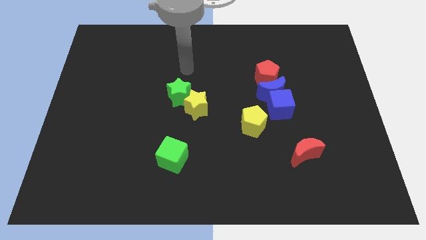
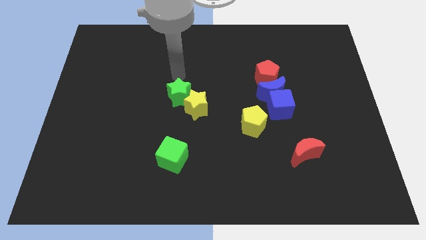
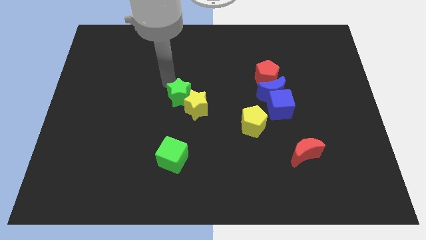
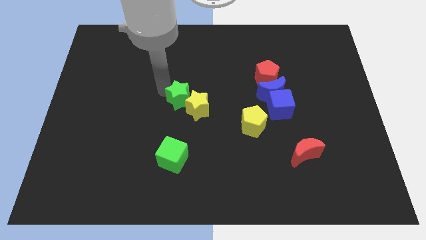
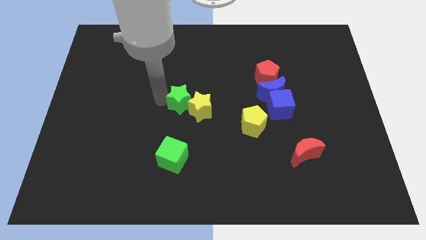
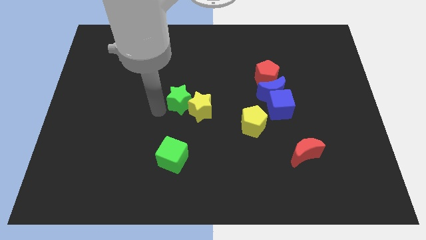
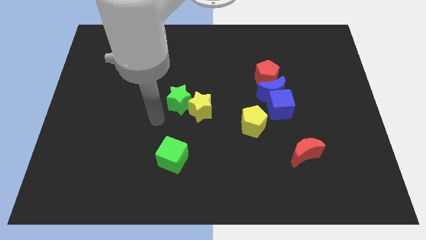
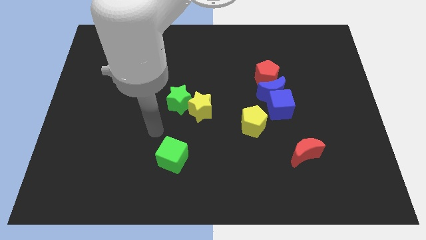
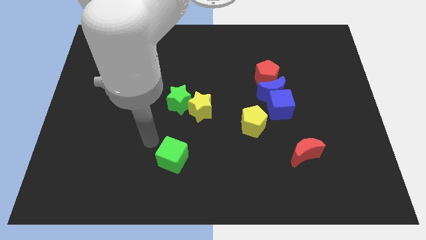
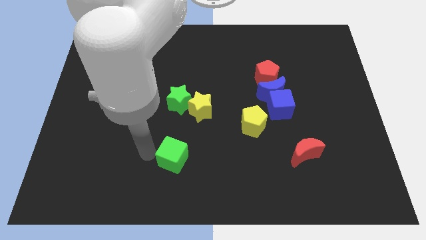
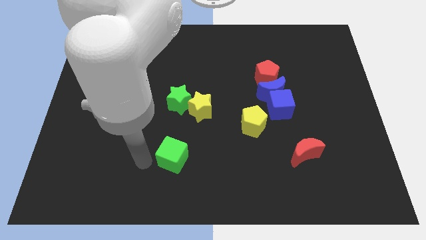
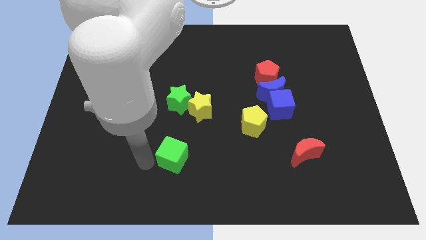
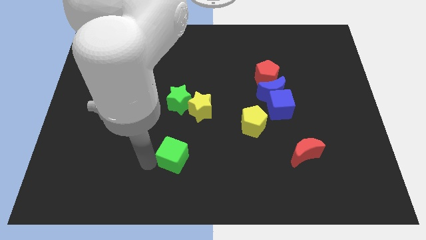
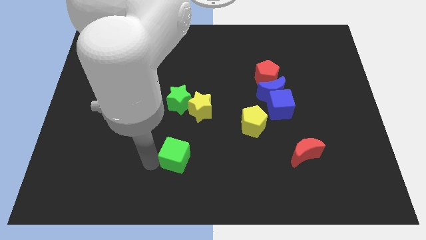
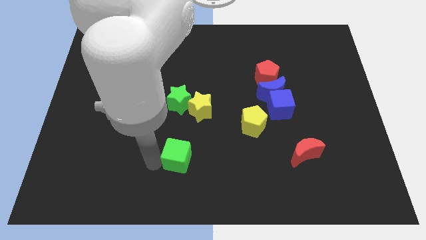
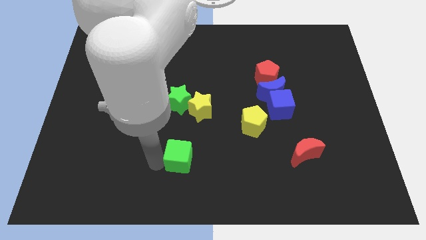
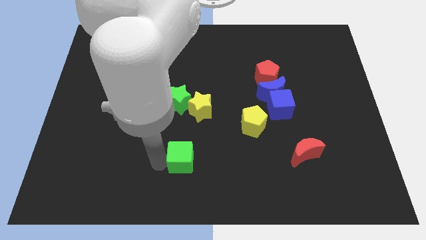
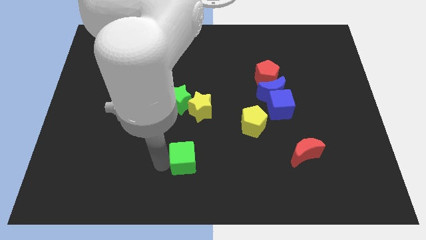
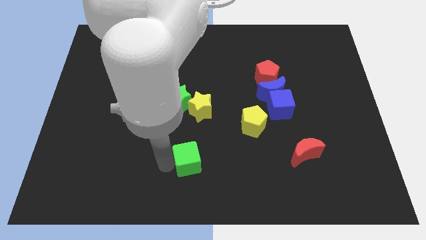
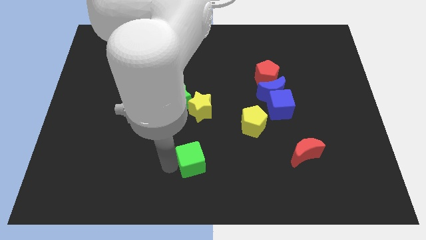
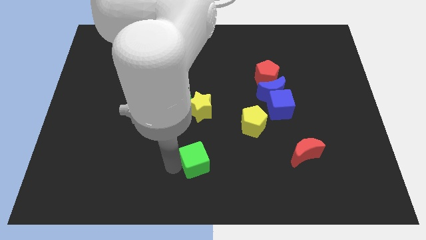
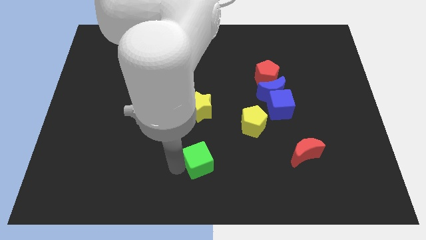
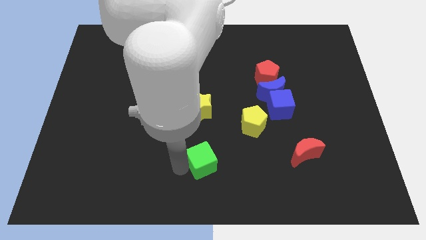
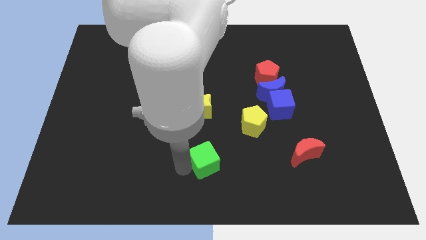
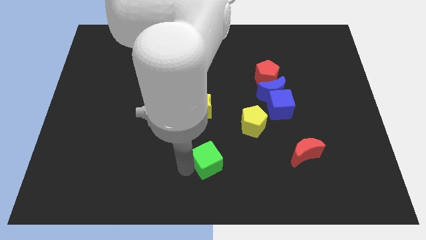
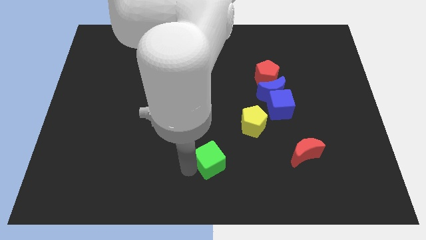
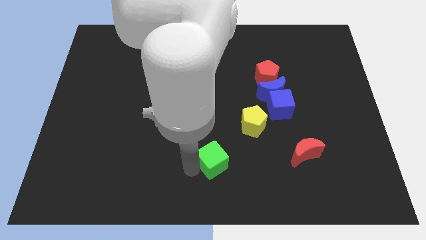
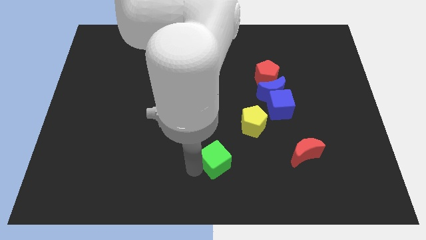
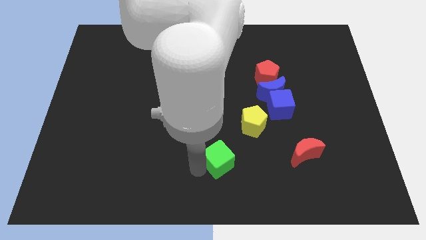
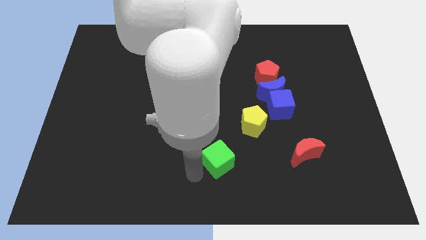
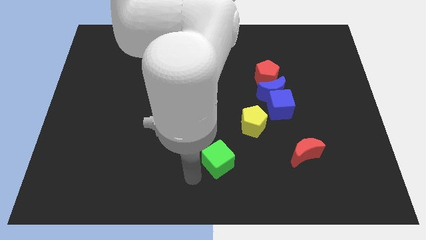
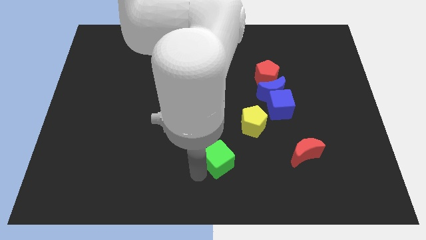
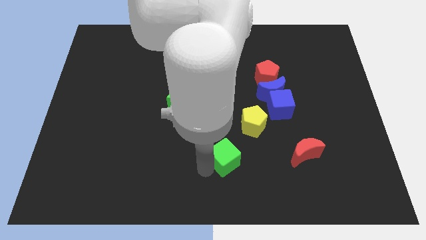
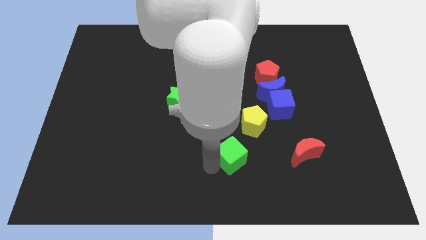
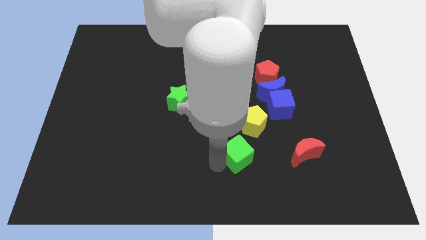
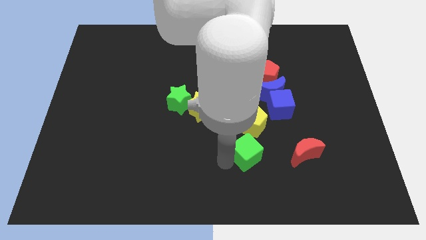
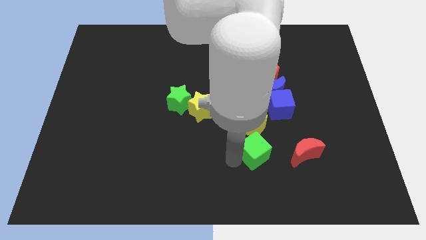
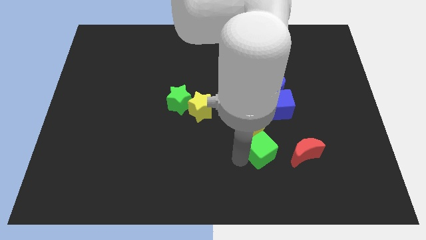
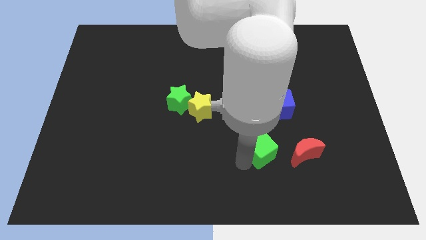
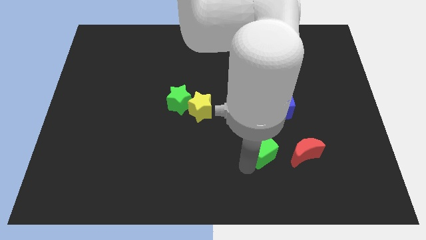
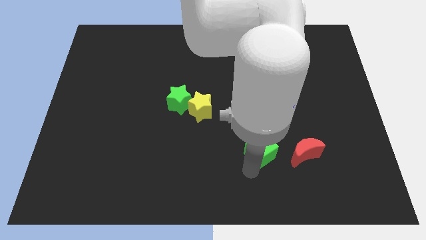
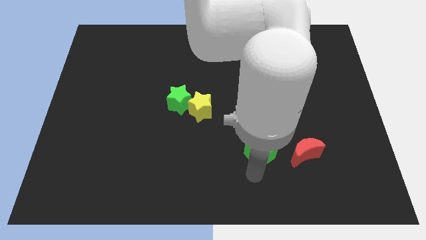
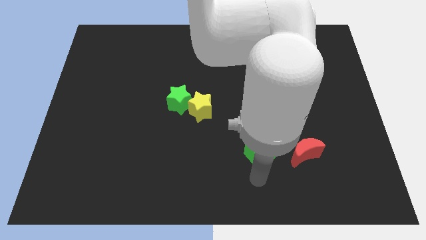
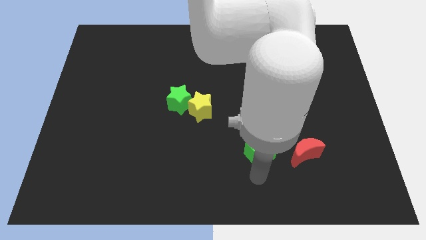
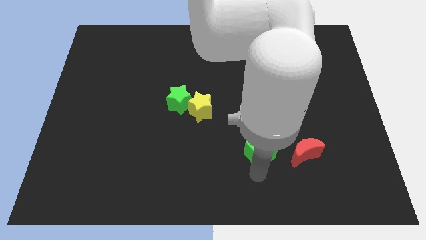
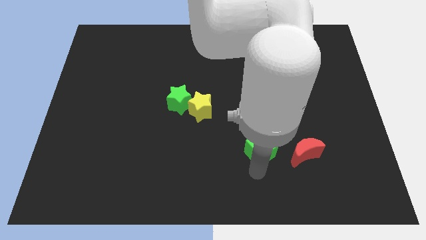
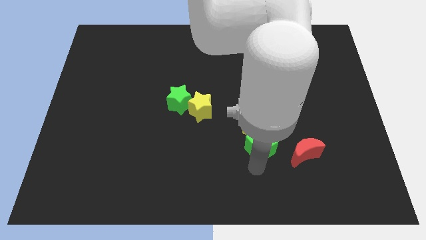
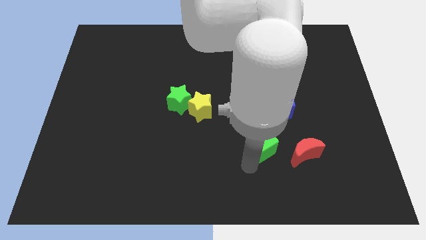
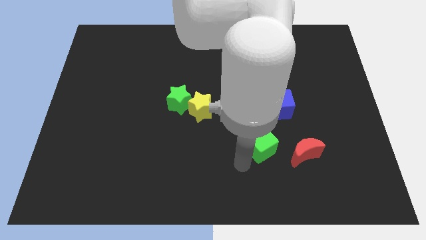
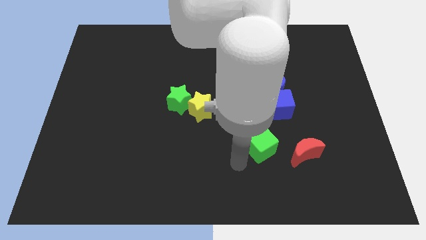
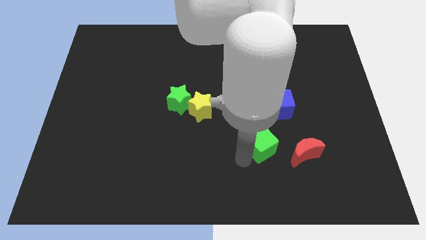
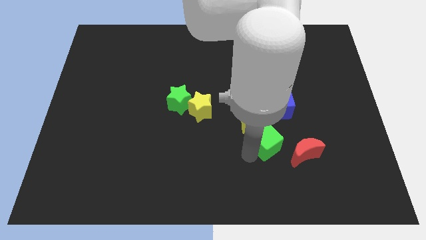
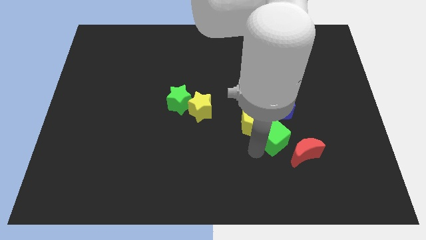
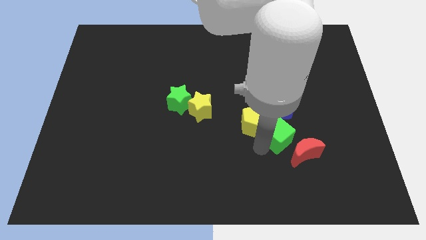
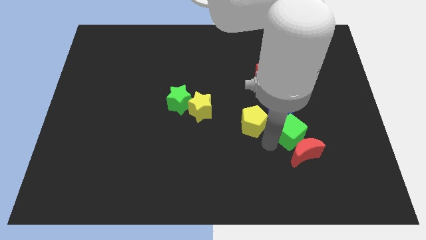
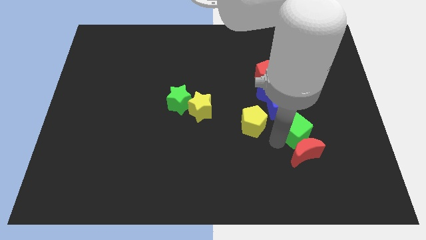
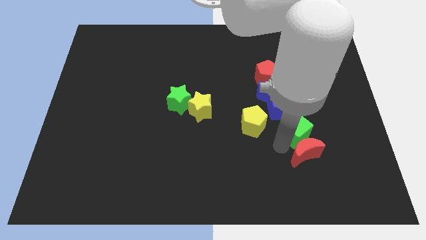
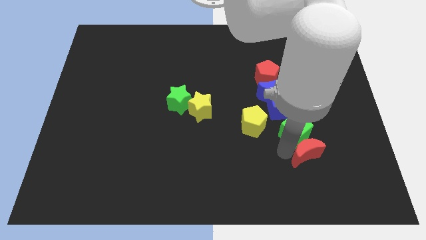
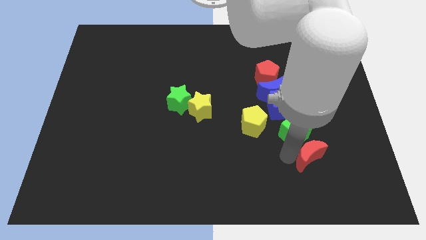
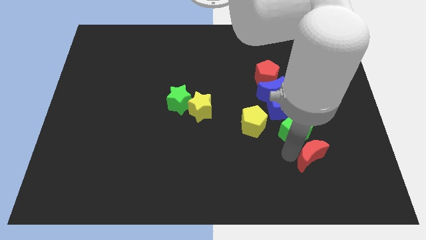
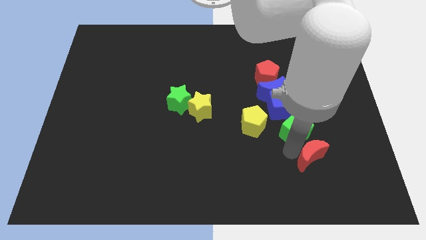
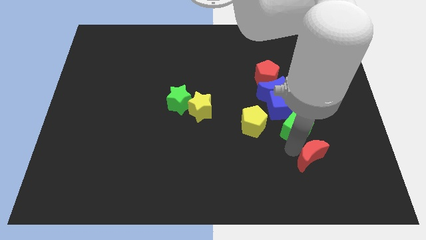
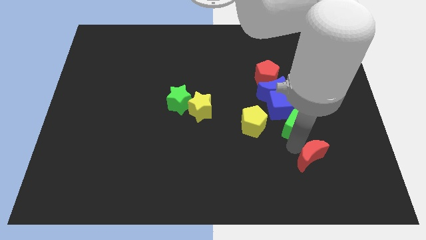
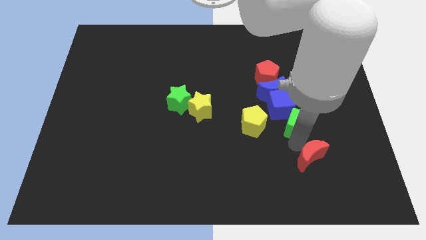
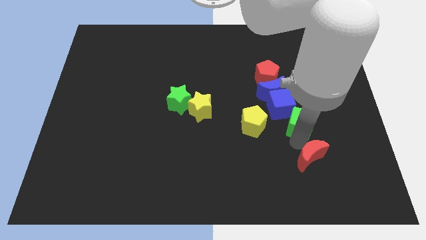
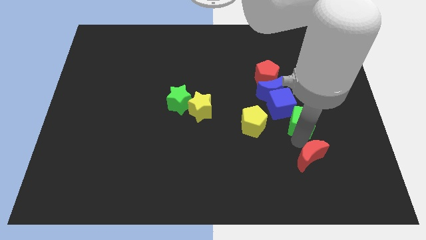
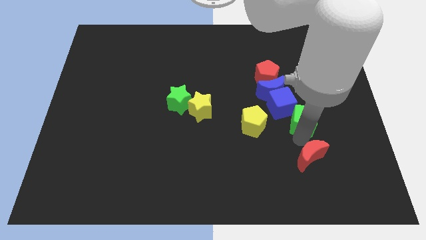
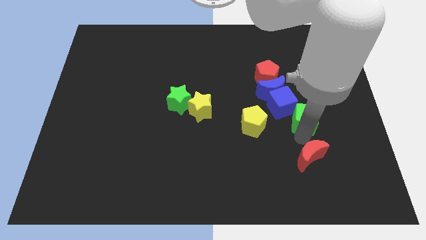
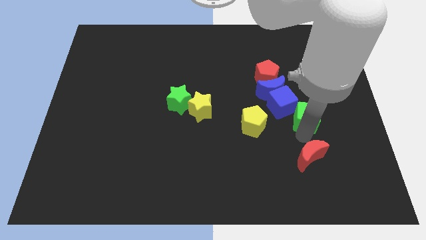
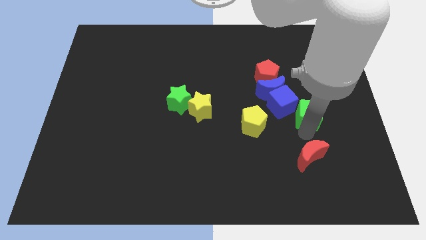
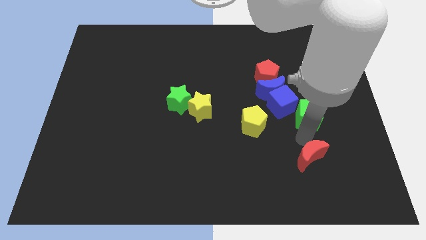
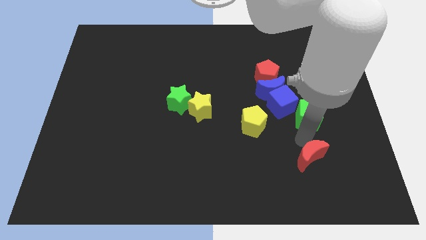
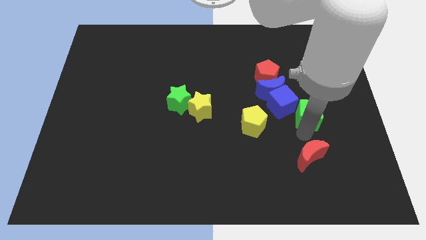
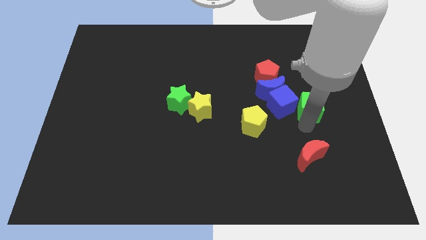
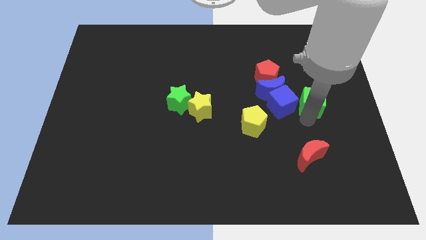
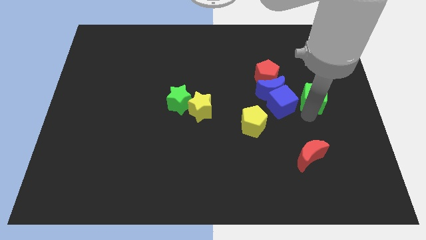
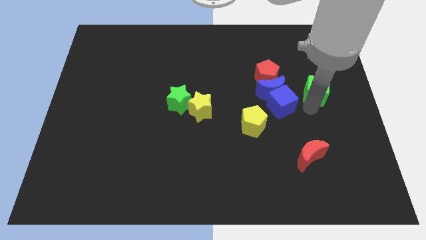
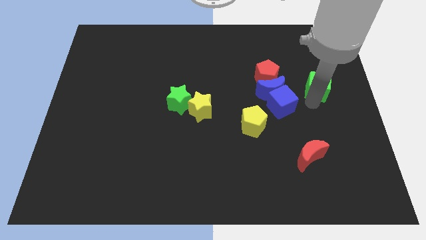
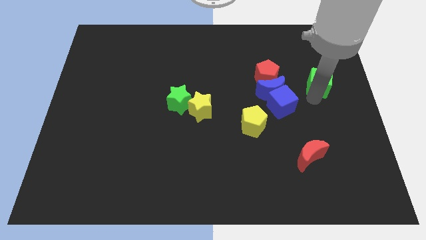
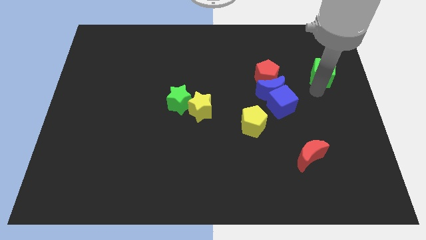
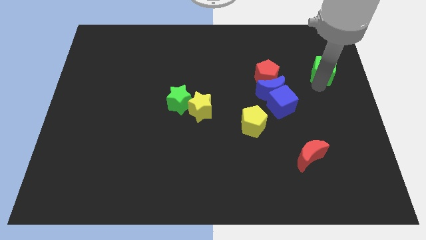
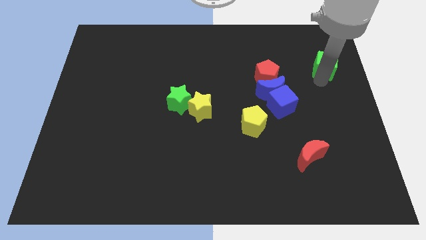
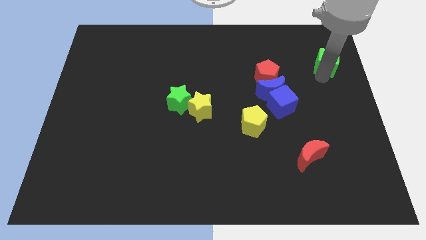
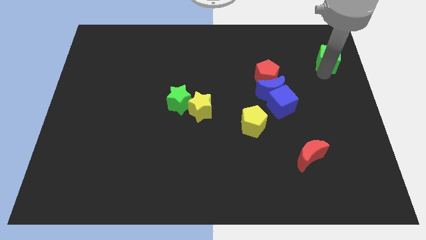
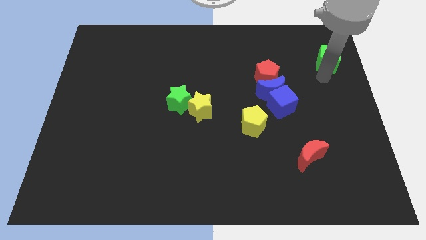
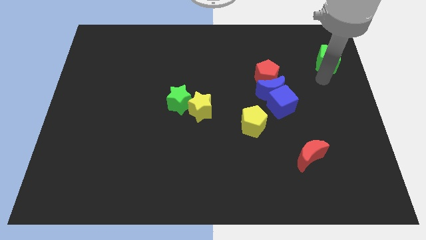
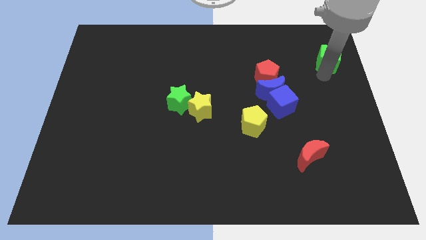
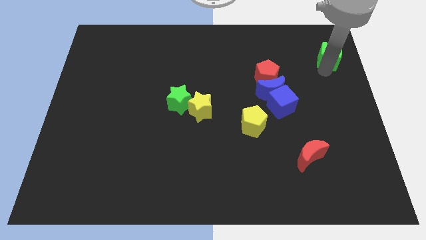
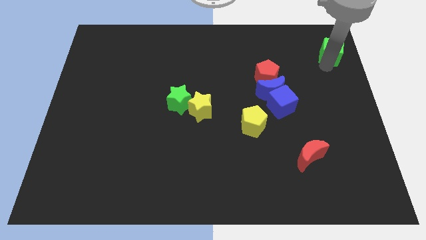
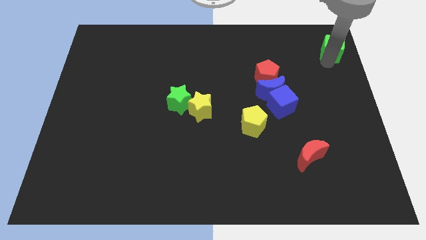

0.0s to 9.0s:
put the green cube to the top right of the board
